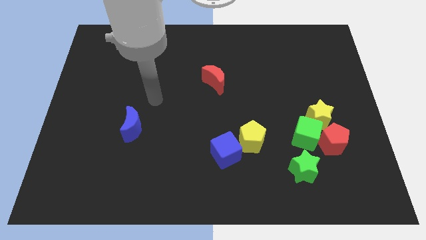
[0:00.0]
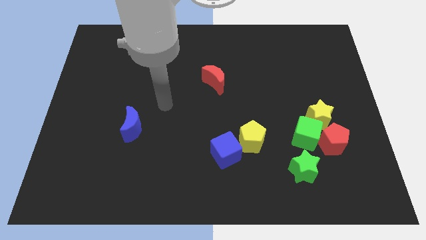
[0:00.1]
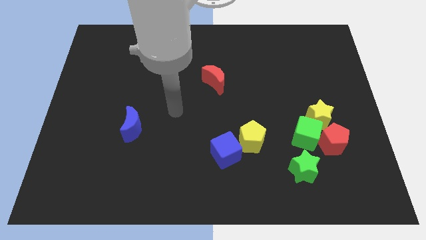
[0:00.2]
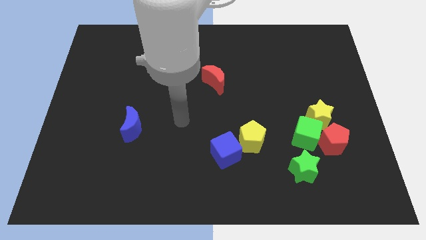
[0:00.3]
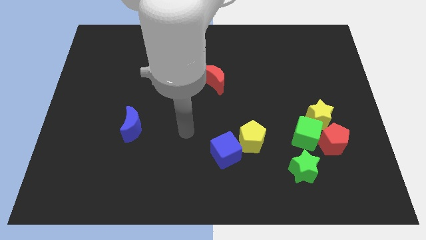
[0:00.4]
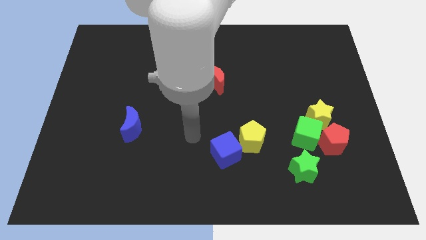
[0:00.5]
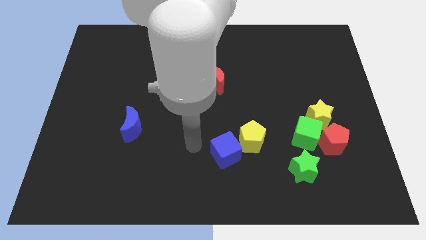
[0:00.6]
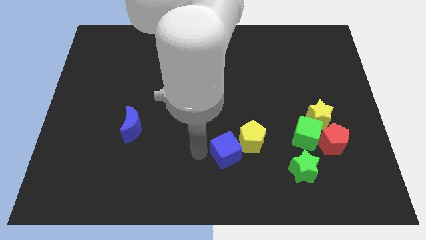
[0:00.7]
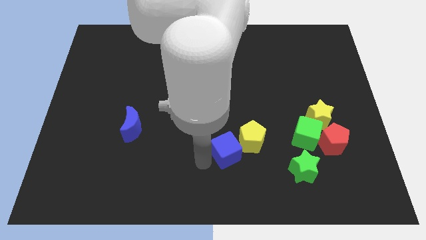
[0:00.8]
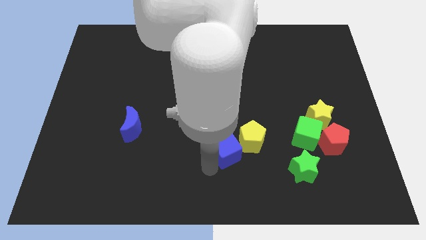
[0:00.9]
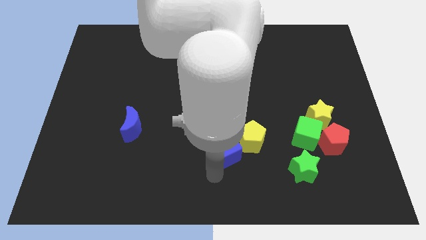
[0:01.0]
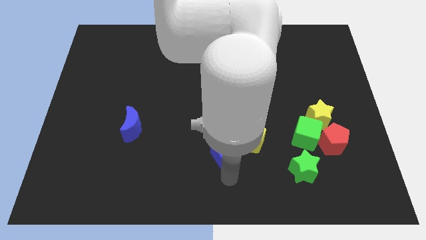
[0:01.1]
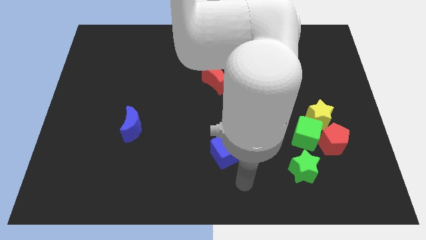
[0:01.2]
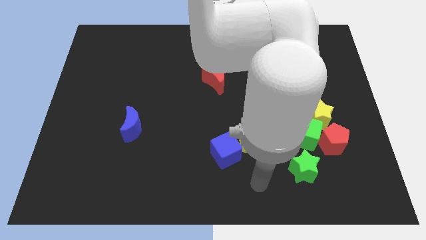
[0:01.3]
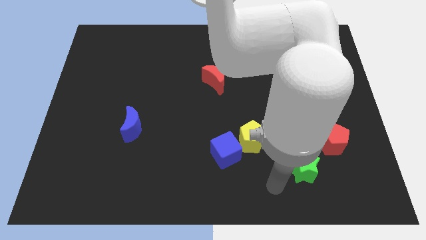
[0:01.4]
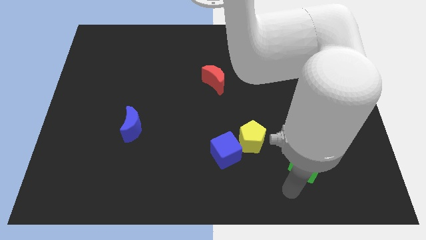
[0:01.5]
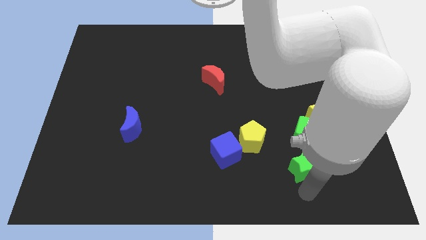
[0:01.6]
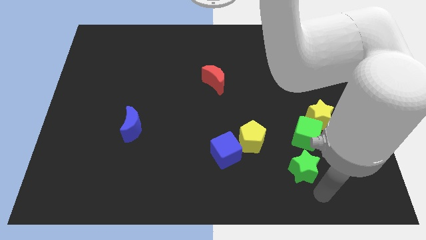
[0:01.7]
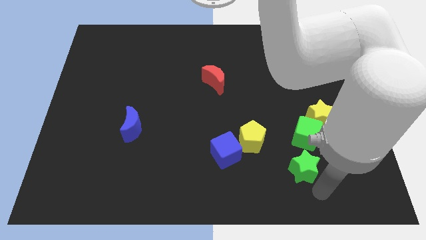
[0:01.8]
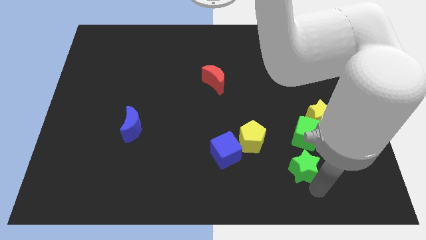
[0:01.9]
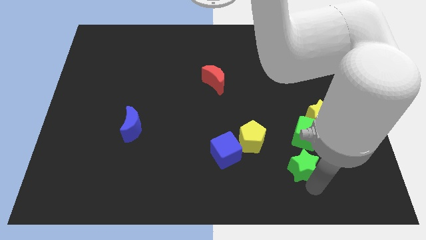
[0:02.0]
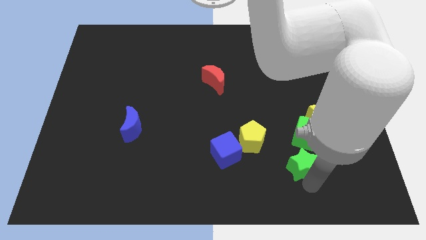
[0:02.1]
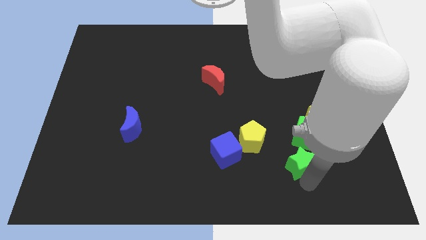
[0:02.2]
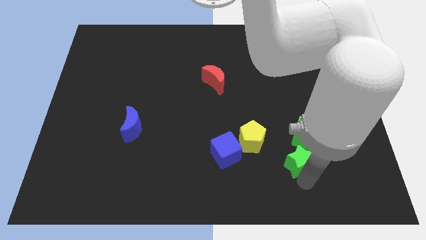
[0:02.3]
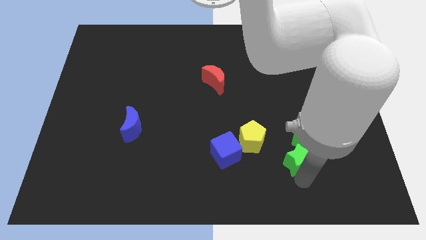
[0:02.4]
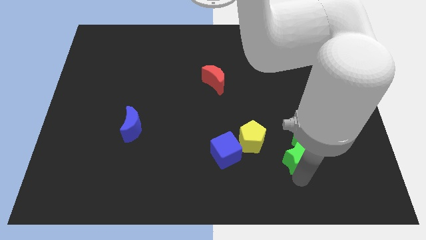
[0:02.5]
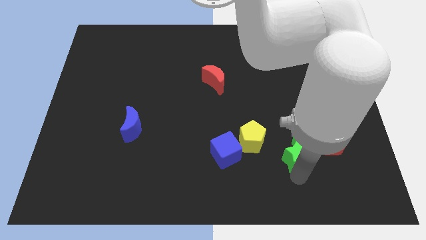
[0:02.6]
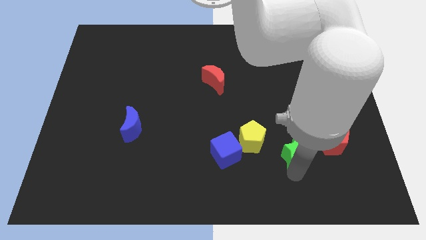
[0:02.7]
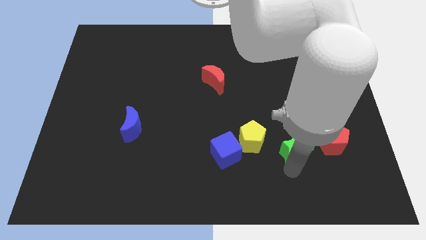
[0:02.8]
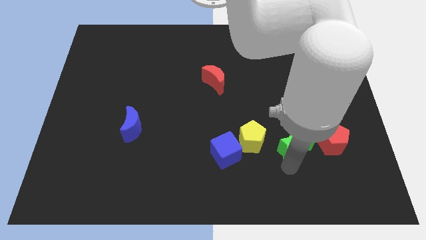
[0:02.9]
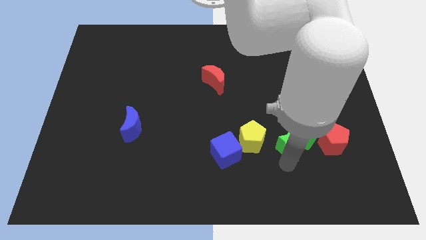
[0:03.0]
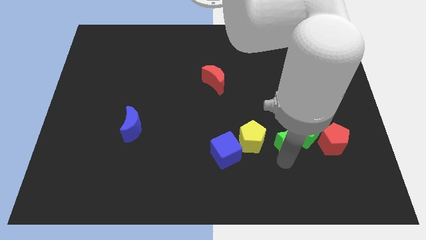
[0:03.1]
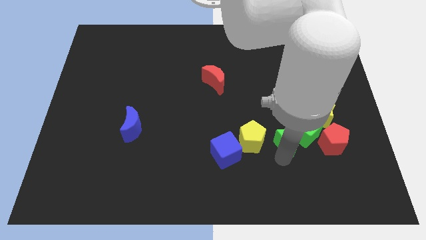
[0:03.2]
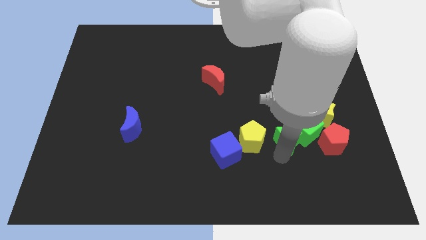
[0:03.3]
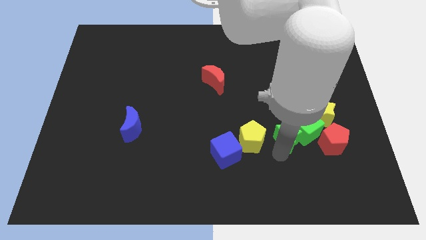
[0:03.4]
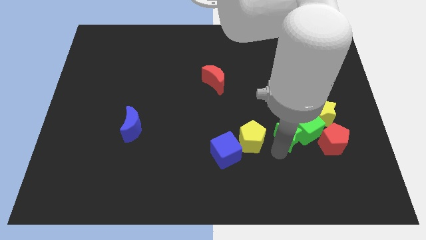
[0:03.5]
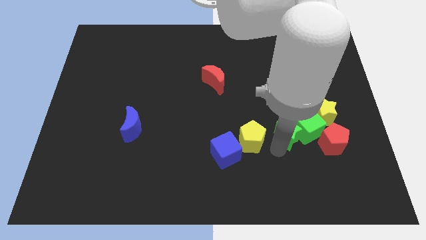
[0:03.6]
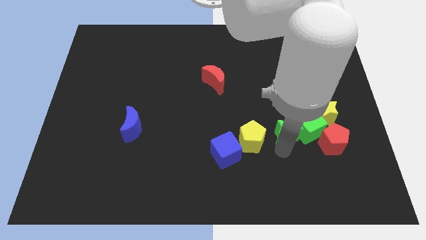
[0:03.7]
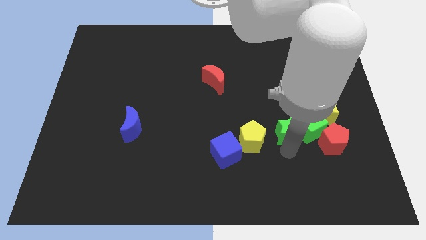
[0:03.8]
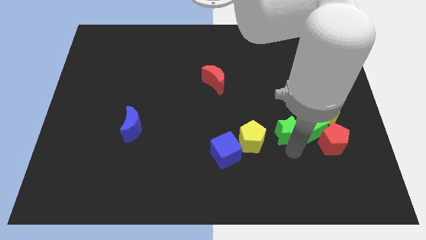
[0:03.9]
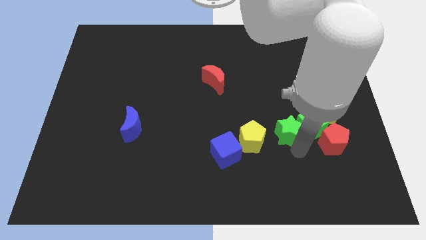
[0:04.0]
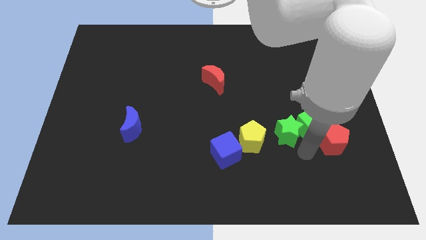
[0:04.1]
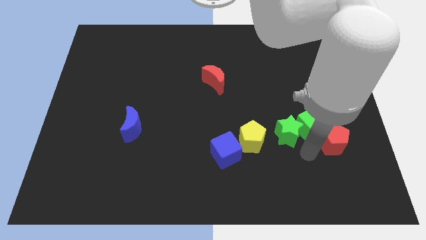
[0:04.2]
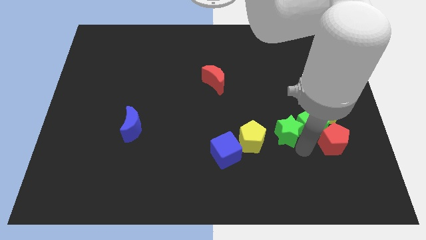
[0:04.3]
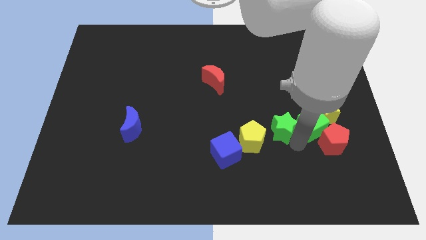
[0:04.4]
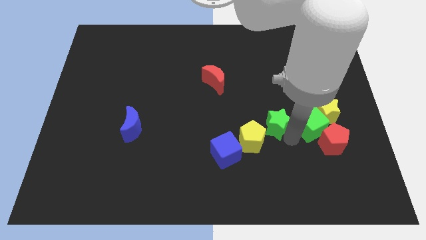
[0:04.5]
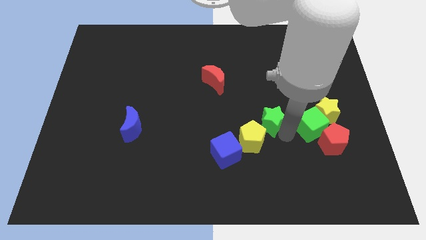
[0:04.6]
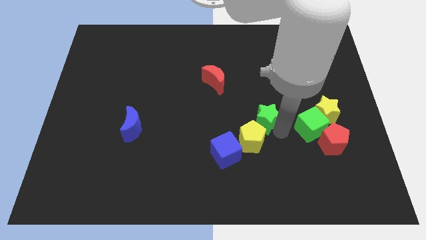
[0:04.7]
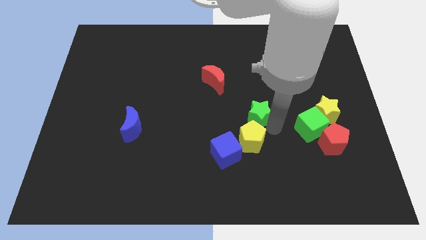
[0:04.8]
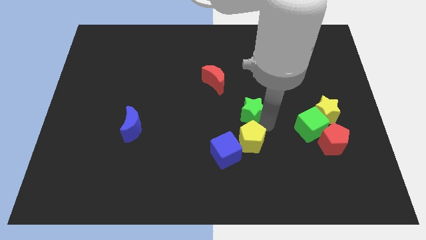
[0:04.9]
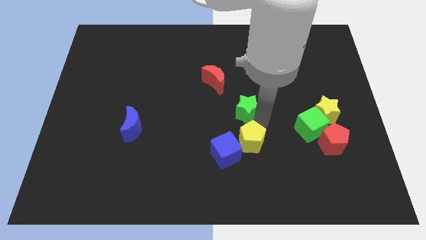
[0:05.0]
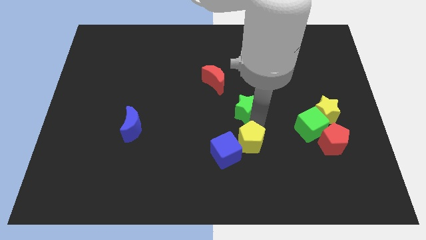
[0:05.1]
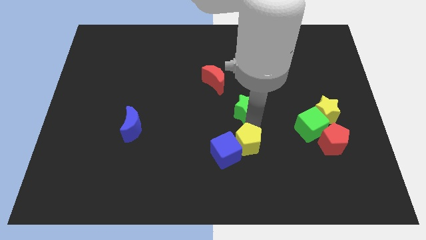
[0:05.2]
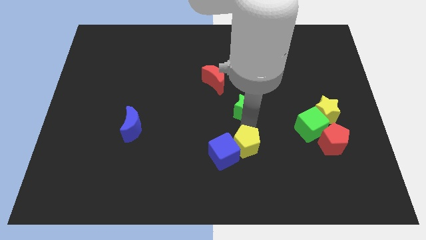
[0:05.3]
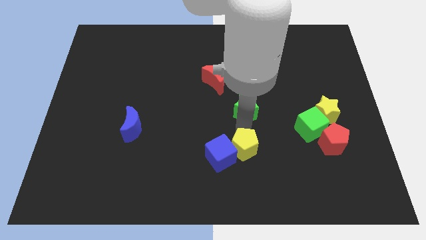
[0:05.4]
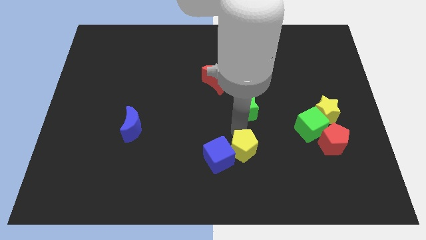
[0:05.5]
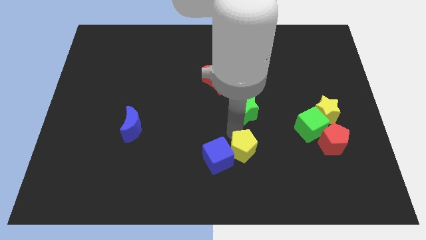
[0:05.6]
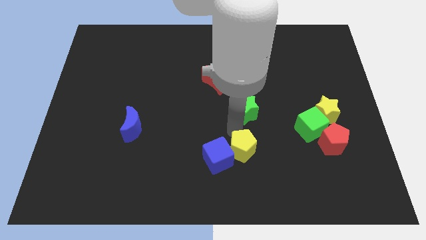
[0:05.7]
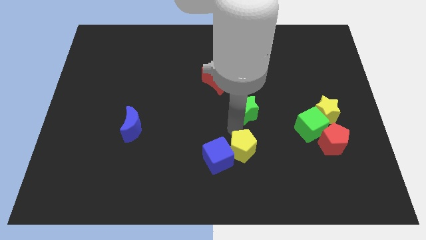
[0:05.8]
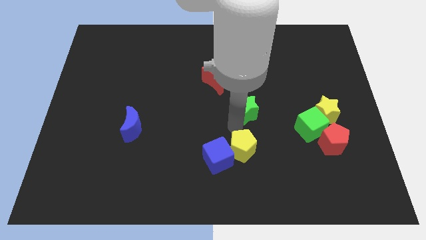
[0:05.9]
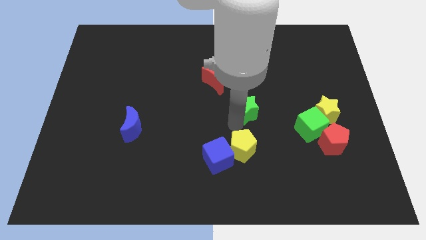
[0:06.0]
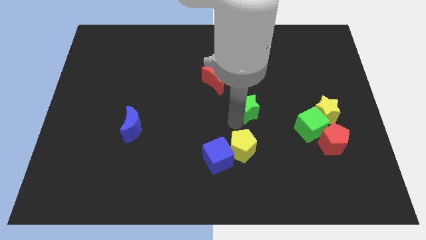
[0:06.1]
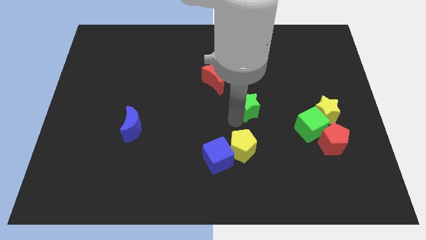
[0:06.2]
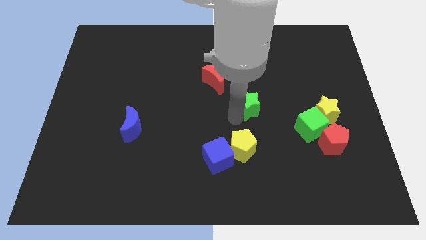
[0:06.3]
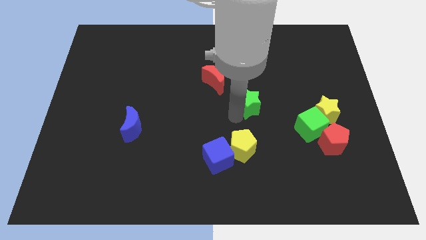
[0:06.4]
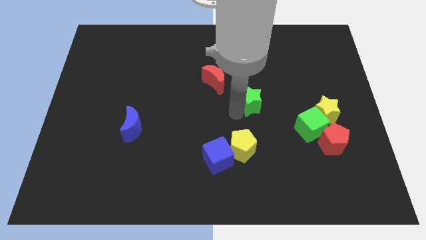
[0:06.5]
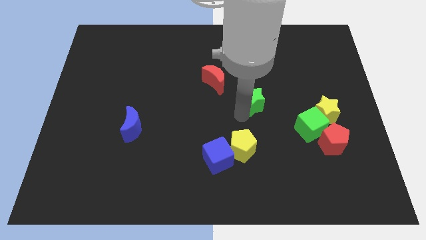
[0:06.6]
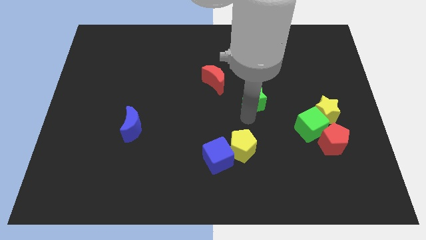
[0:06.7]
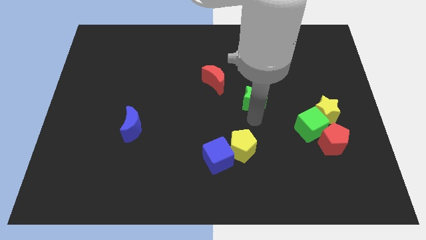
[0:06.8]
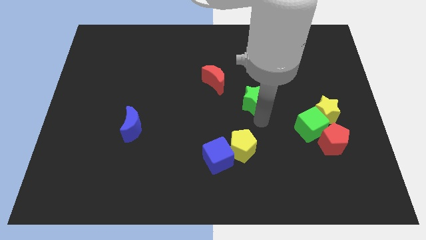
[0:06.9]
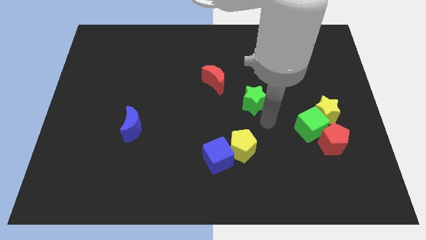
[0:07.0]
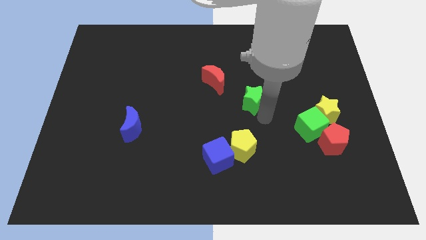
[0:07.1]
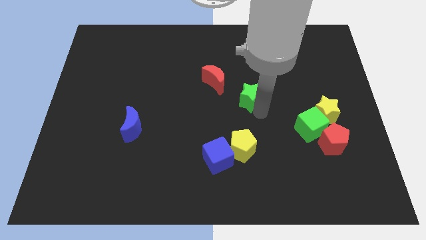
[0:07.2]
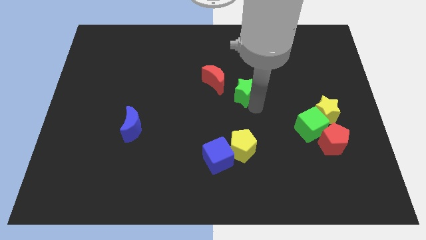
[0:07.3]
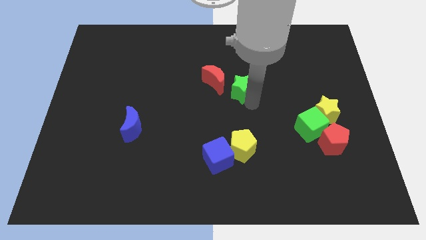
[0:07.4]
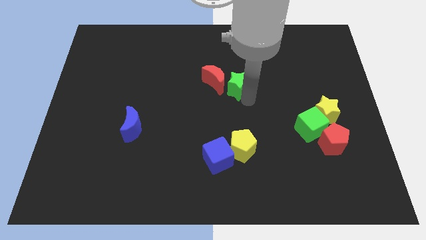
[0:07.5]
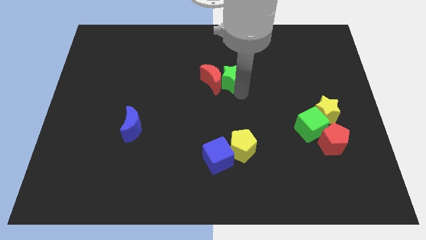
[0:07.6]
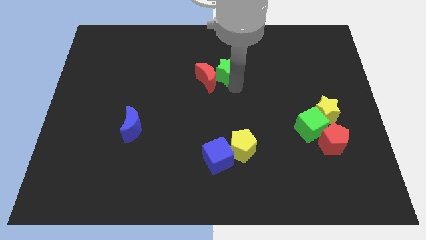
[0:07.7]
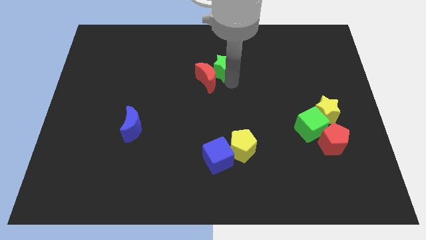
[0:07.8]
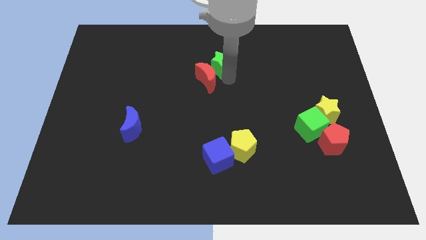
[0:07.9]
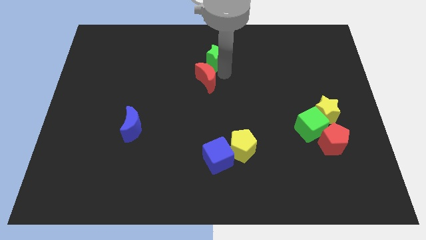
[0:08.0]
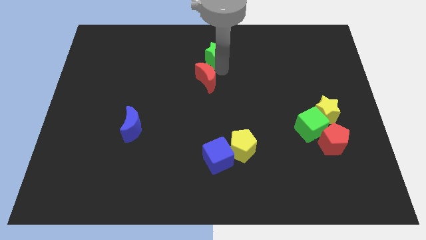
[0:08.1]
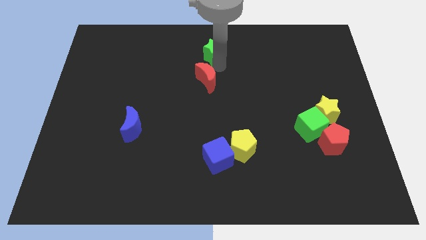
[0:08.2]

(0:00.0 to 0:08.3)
slide the green star to the top side

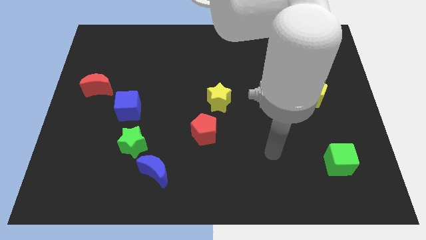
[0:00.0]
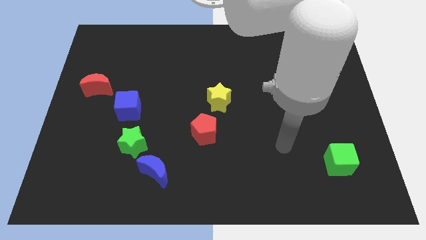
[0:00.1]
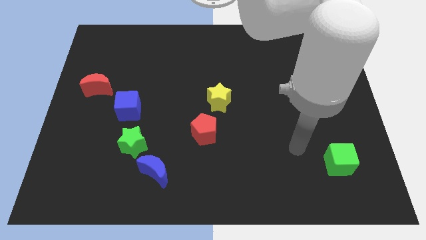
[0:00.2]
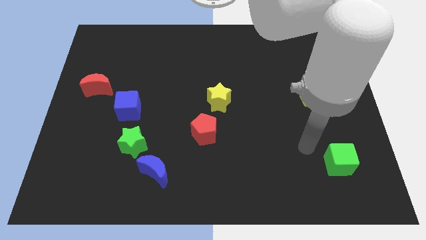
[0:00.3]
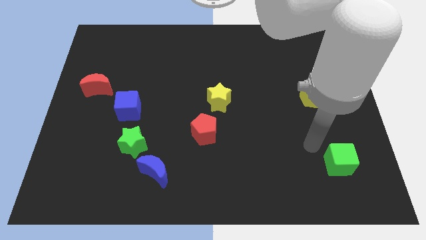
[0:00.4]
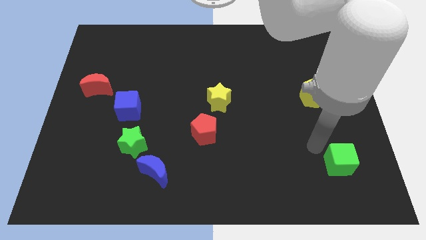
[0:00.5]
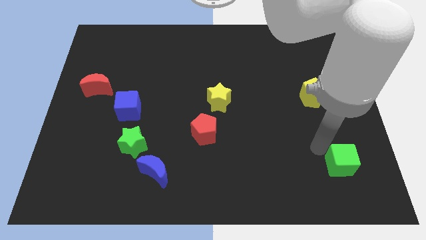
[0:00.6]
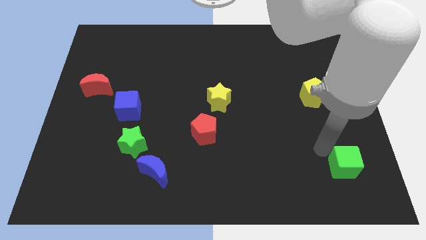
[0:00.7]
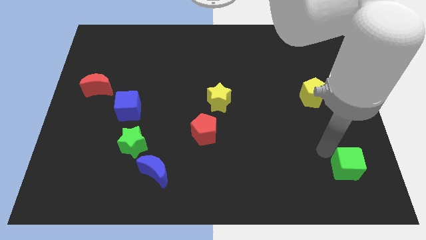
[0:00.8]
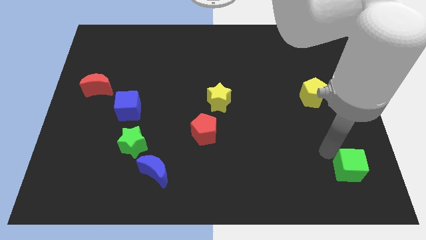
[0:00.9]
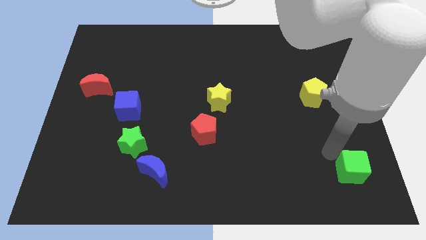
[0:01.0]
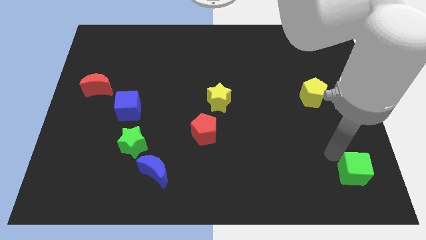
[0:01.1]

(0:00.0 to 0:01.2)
move the green cube to the bottom right corner
